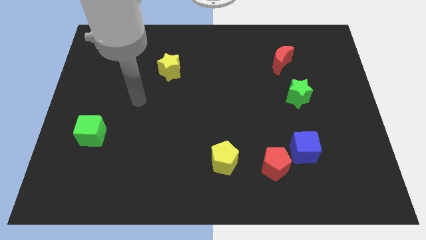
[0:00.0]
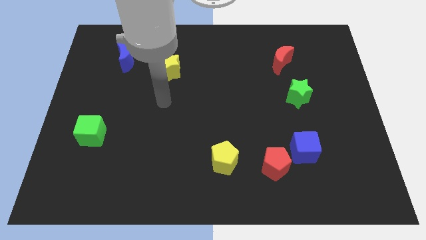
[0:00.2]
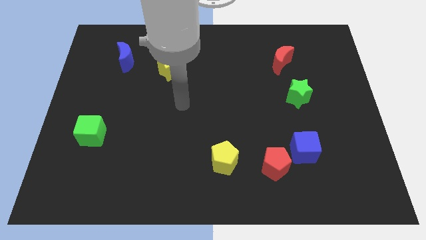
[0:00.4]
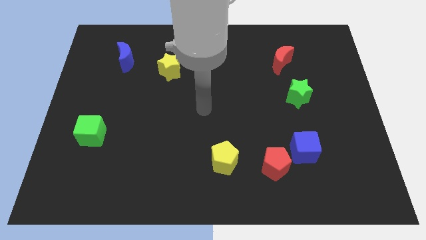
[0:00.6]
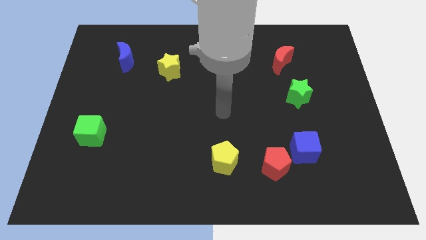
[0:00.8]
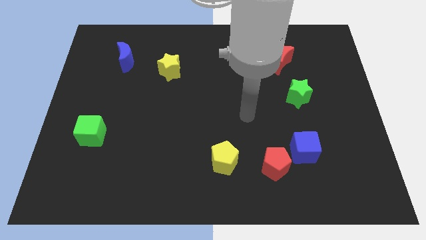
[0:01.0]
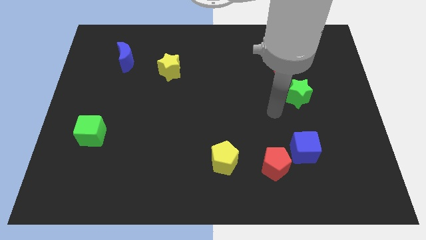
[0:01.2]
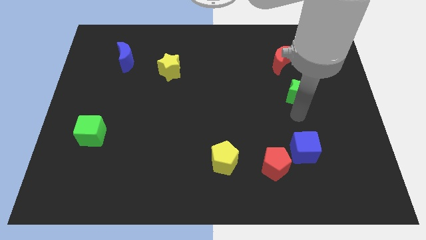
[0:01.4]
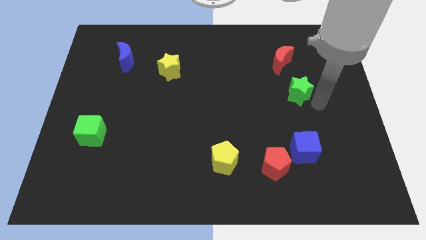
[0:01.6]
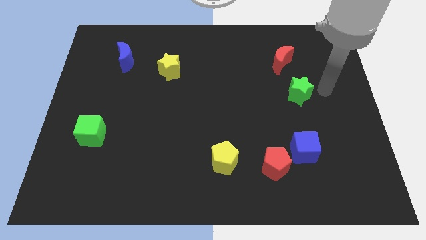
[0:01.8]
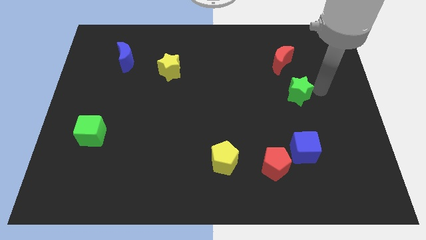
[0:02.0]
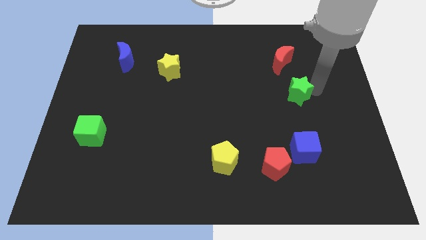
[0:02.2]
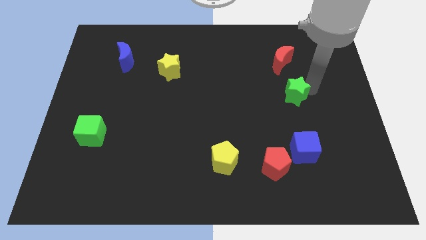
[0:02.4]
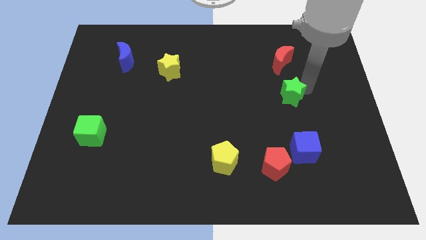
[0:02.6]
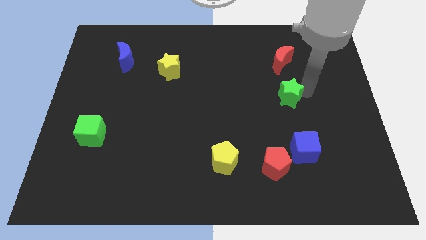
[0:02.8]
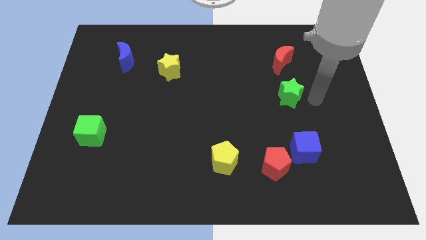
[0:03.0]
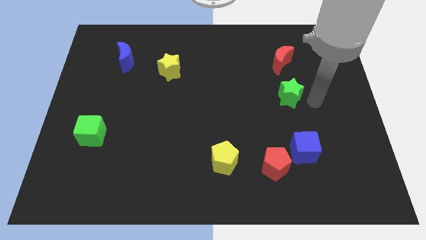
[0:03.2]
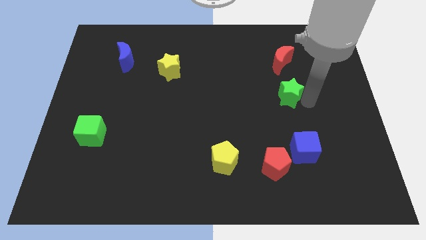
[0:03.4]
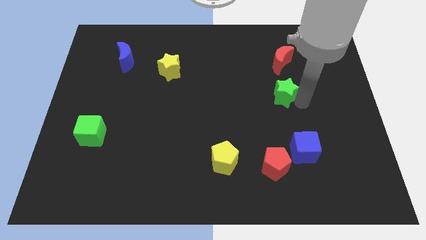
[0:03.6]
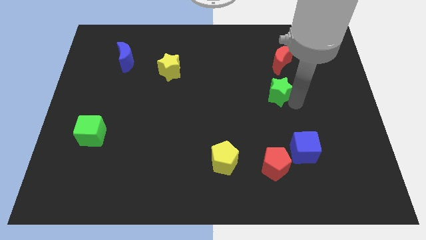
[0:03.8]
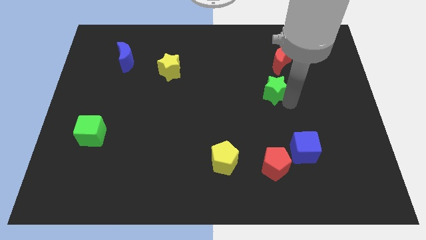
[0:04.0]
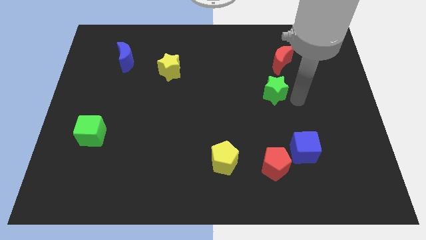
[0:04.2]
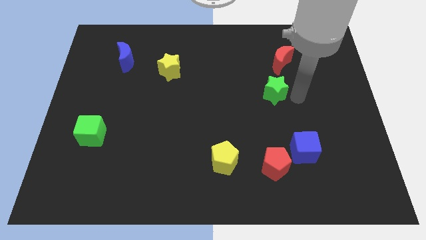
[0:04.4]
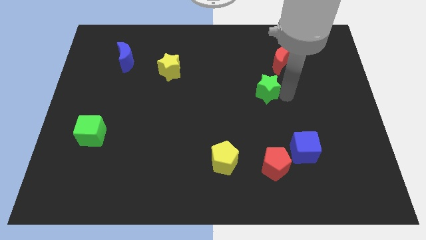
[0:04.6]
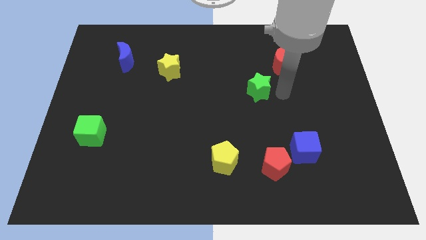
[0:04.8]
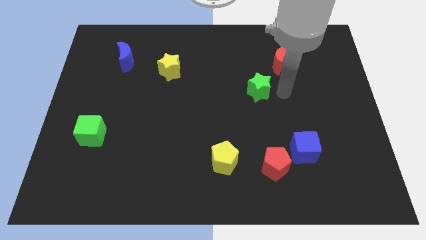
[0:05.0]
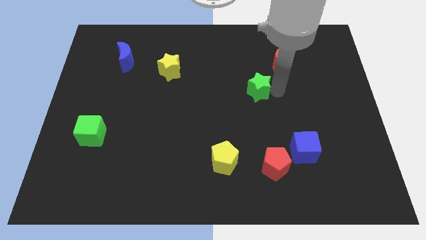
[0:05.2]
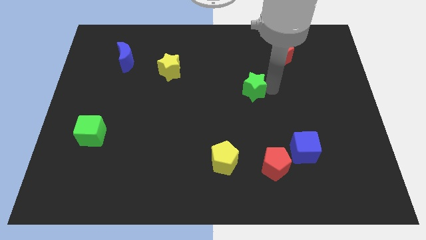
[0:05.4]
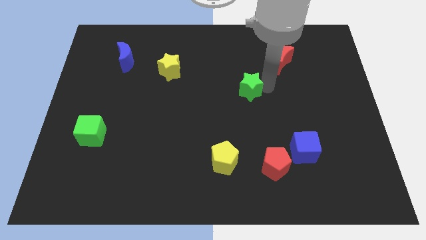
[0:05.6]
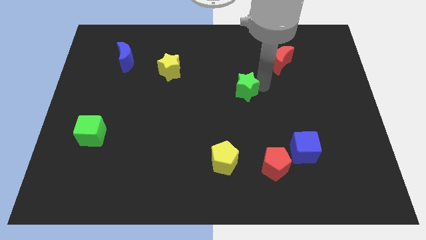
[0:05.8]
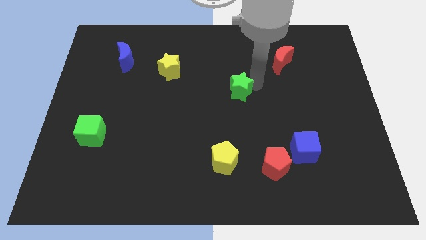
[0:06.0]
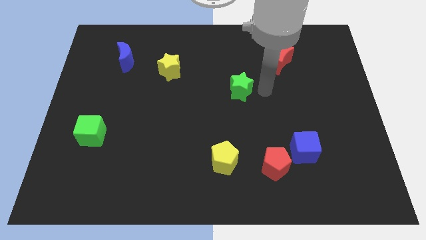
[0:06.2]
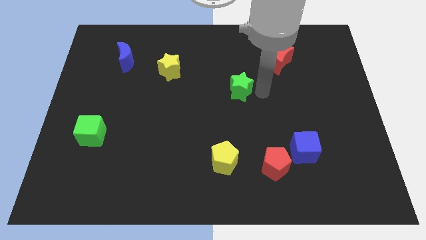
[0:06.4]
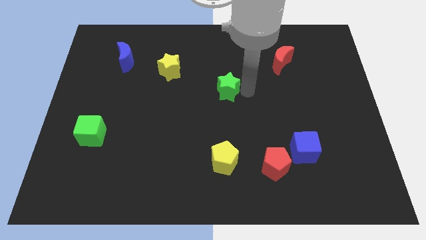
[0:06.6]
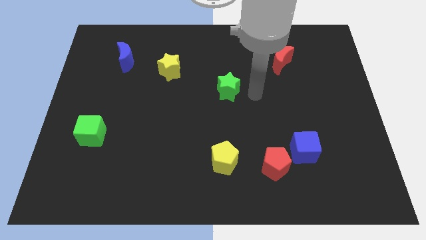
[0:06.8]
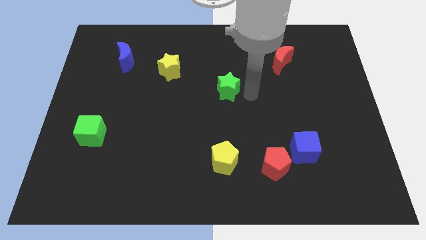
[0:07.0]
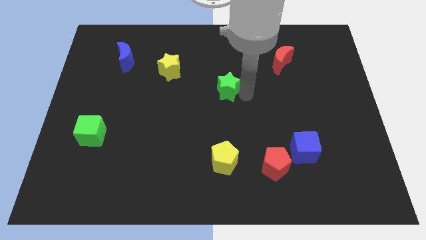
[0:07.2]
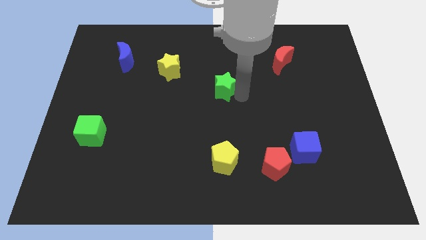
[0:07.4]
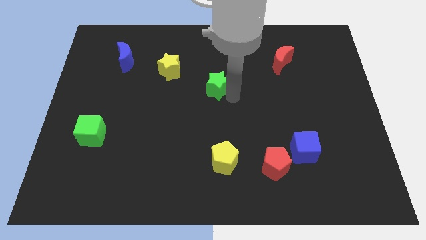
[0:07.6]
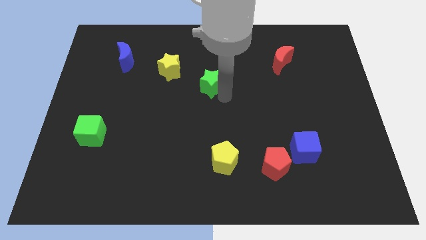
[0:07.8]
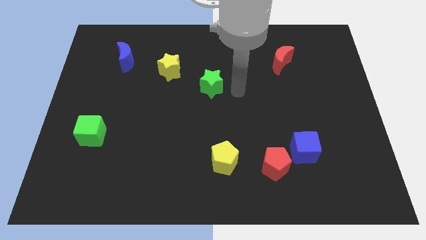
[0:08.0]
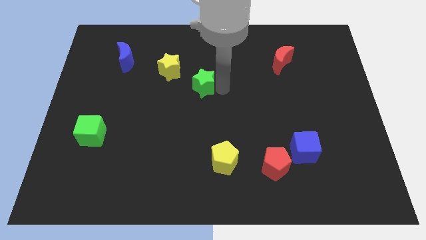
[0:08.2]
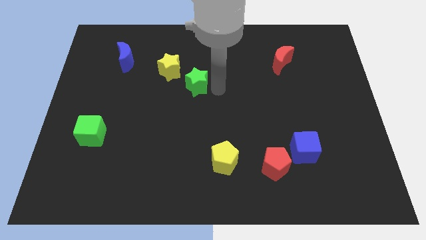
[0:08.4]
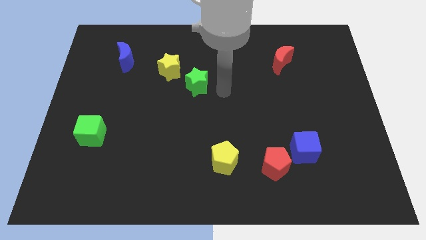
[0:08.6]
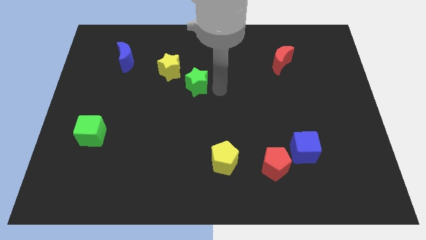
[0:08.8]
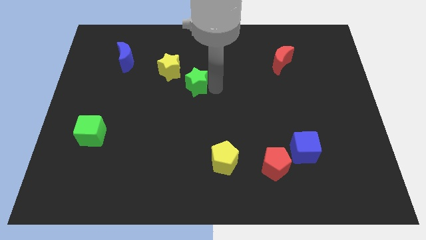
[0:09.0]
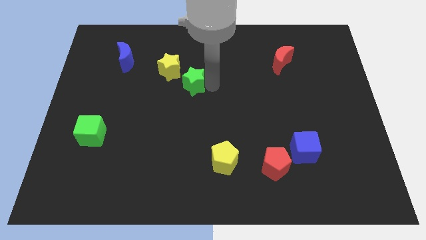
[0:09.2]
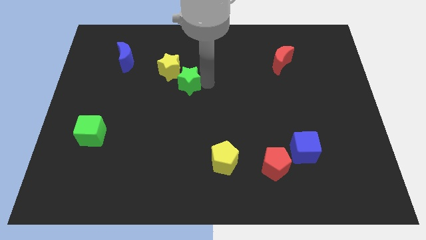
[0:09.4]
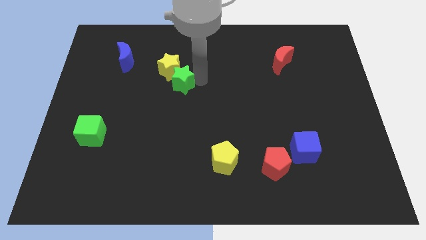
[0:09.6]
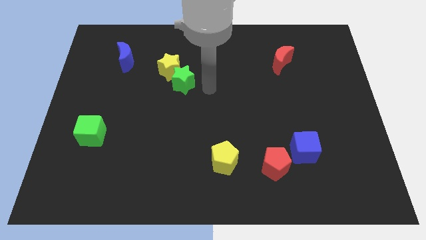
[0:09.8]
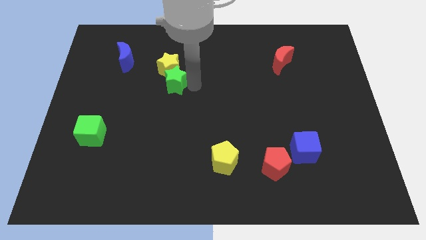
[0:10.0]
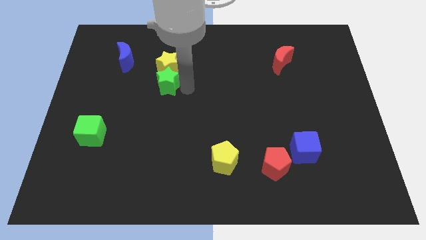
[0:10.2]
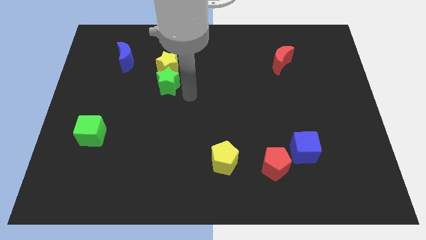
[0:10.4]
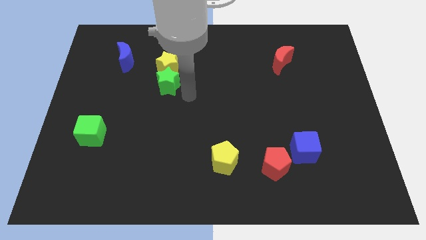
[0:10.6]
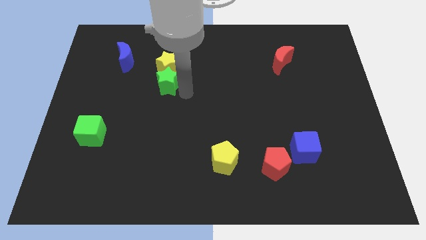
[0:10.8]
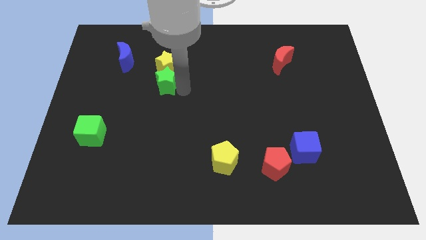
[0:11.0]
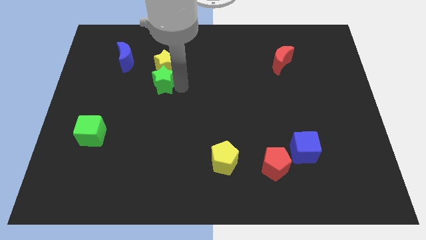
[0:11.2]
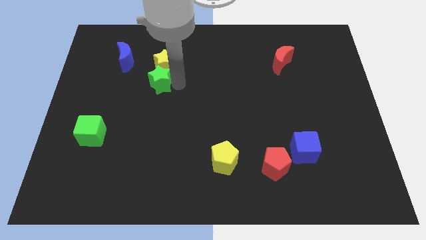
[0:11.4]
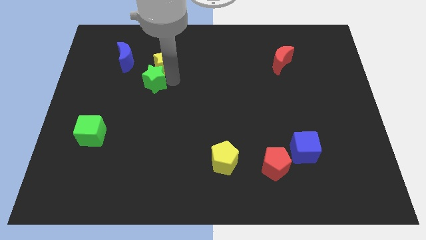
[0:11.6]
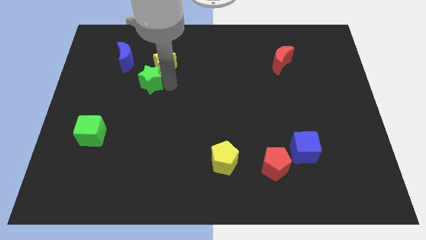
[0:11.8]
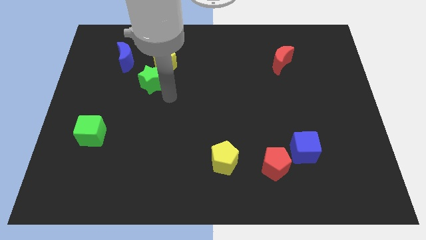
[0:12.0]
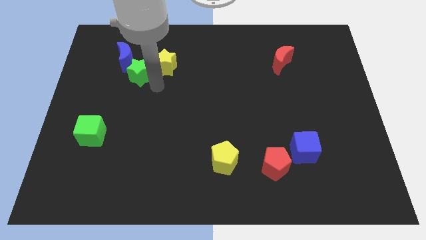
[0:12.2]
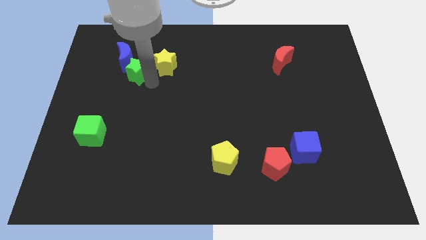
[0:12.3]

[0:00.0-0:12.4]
slide the green star next to the blue moon

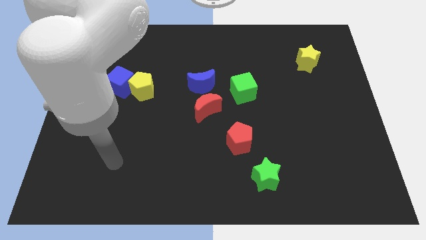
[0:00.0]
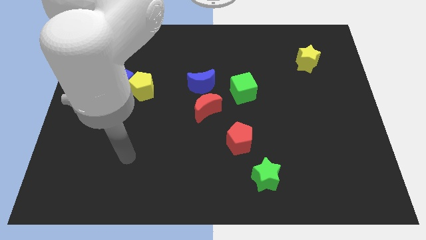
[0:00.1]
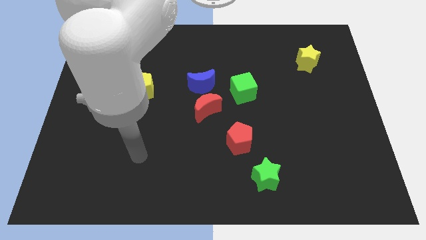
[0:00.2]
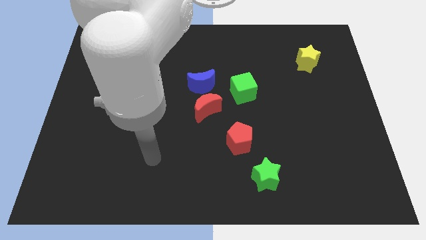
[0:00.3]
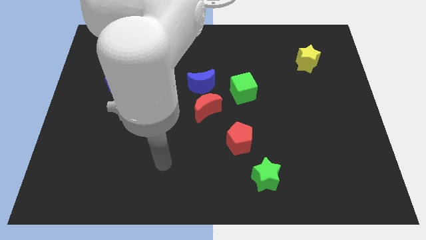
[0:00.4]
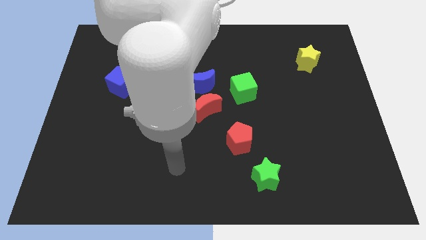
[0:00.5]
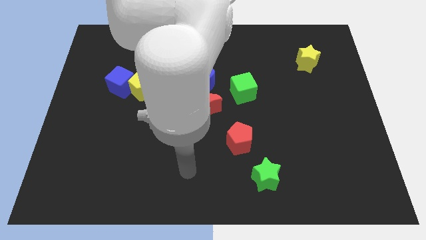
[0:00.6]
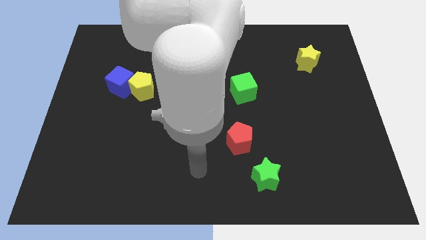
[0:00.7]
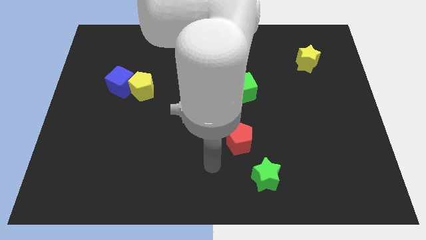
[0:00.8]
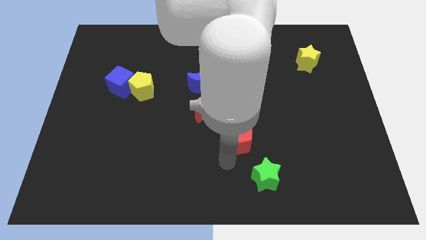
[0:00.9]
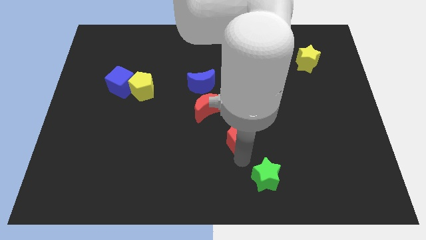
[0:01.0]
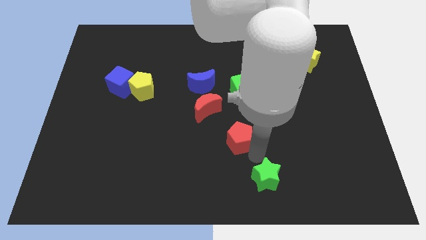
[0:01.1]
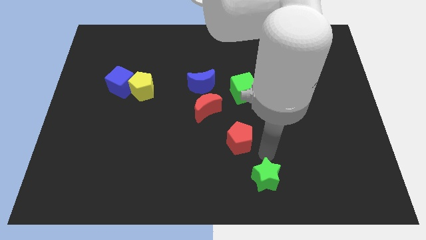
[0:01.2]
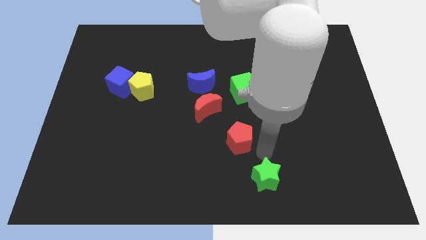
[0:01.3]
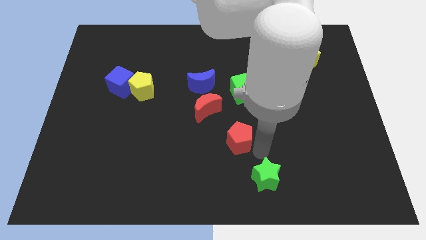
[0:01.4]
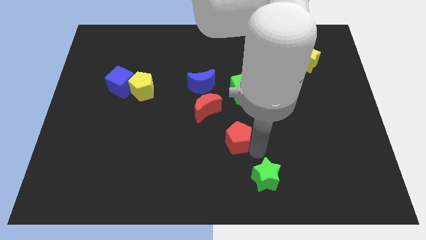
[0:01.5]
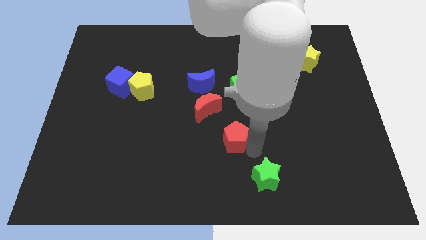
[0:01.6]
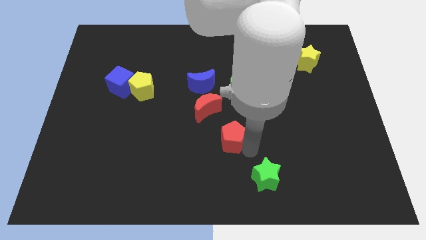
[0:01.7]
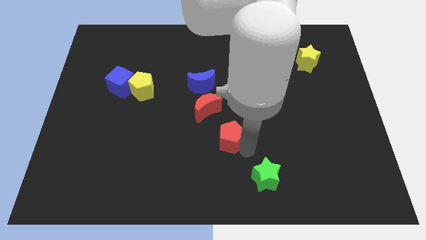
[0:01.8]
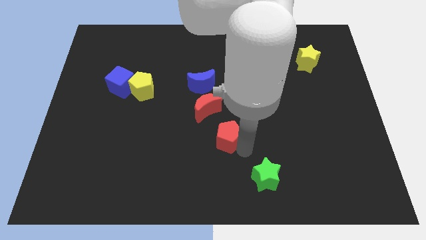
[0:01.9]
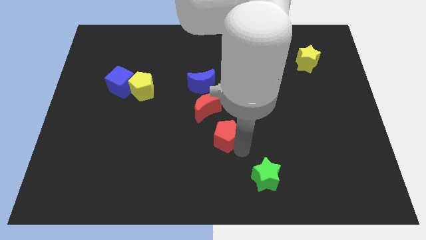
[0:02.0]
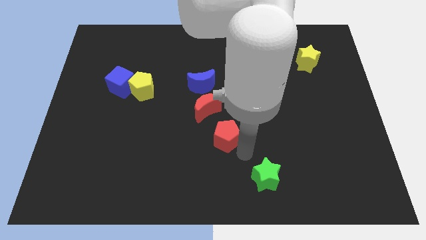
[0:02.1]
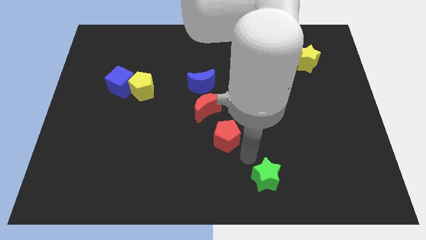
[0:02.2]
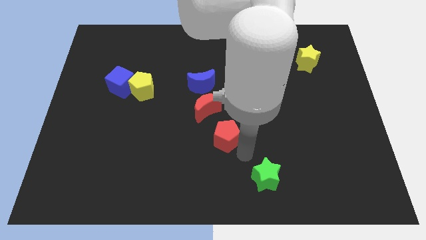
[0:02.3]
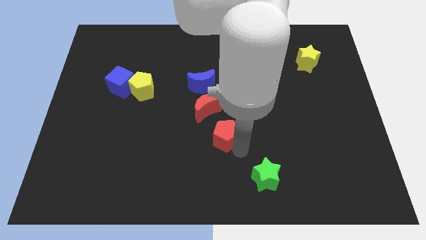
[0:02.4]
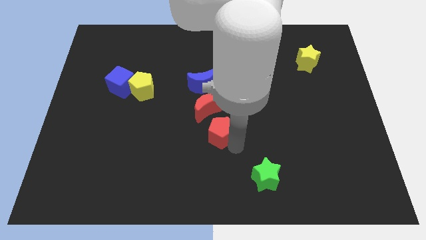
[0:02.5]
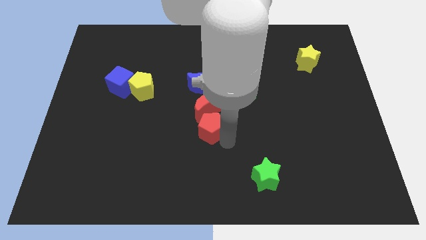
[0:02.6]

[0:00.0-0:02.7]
move the red pentagon next to the red moon
